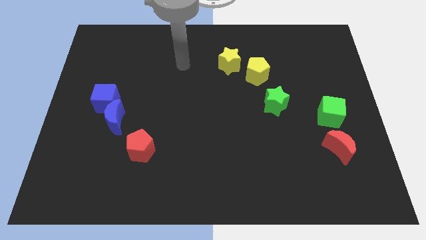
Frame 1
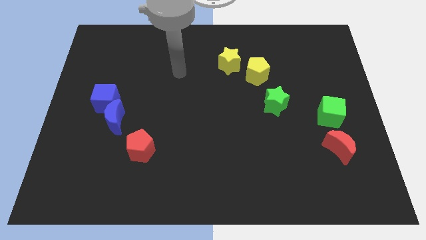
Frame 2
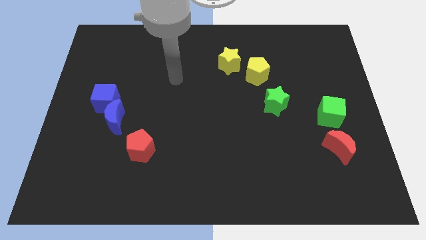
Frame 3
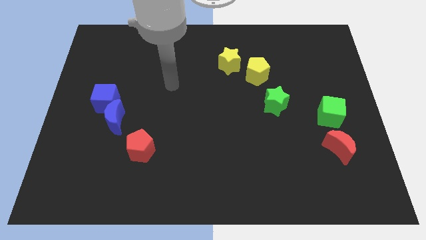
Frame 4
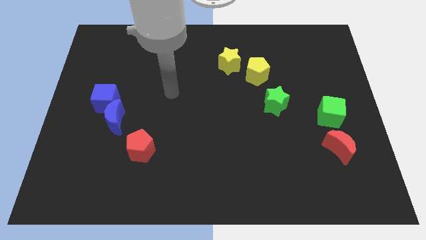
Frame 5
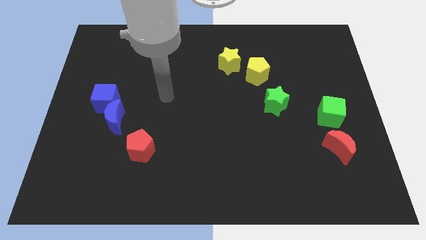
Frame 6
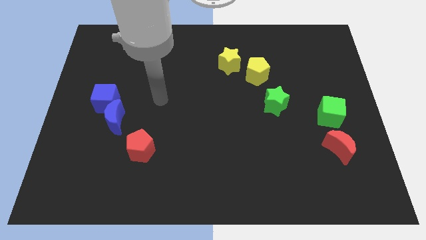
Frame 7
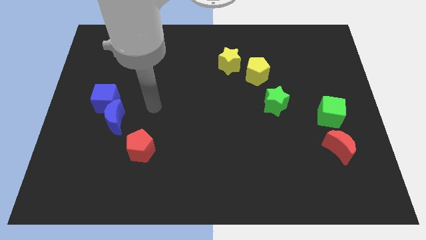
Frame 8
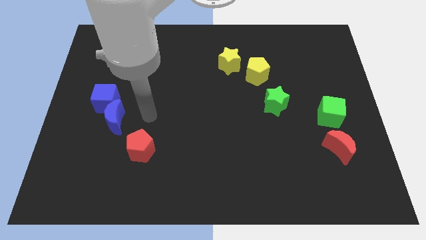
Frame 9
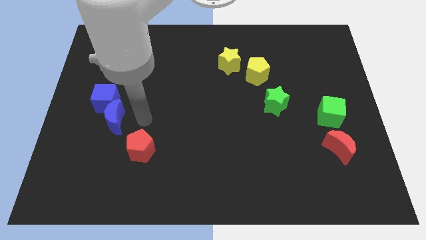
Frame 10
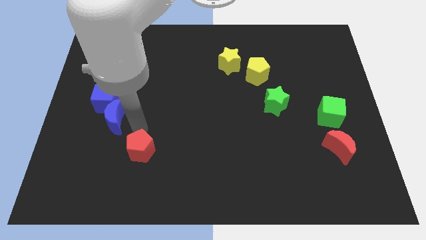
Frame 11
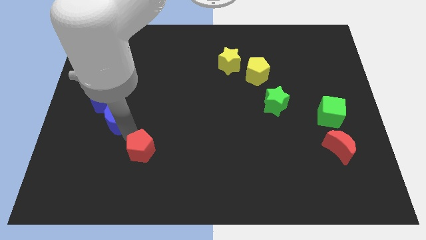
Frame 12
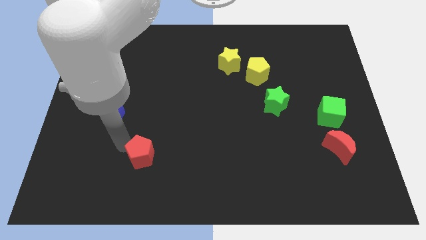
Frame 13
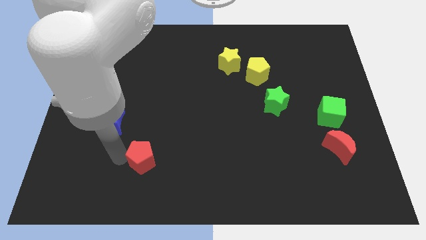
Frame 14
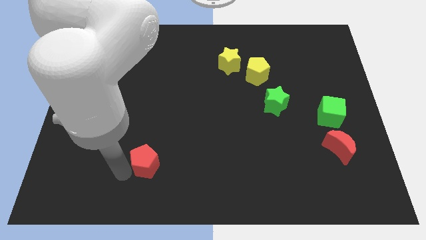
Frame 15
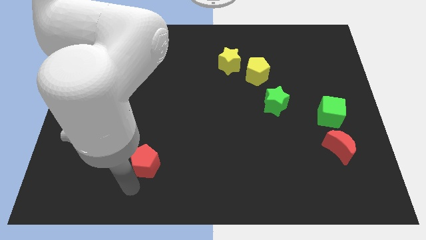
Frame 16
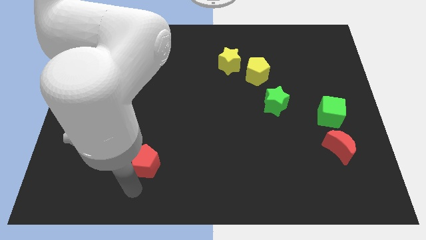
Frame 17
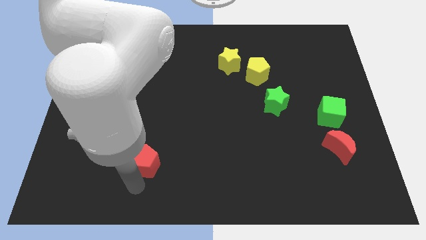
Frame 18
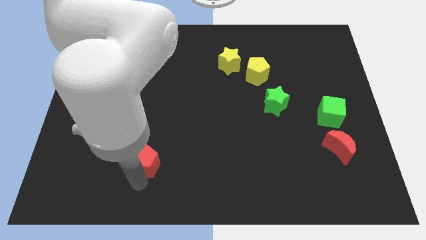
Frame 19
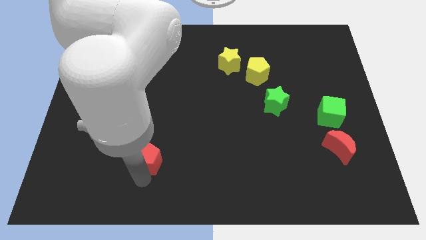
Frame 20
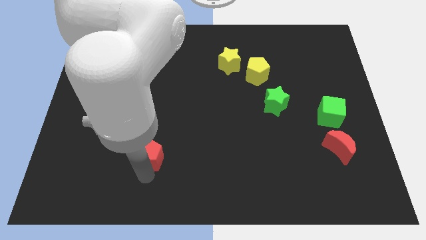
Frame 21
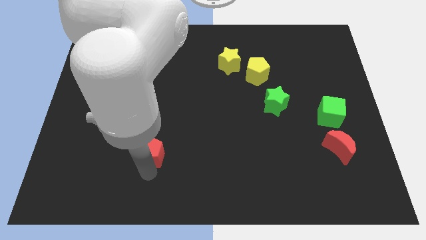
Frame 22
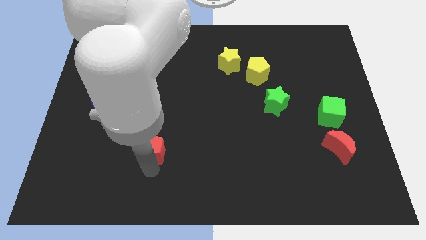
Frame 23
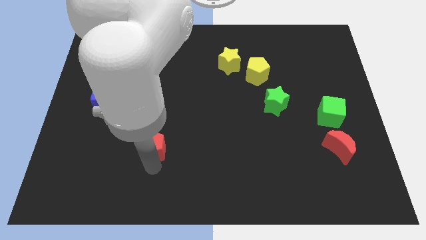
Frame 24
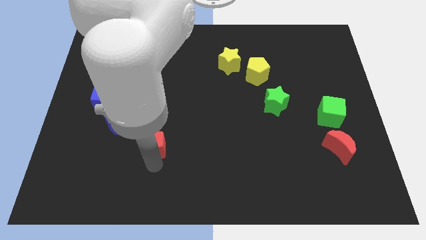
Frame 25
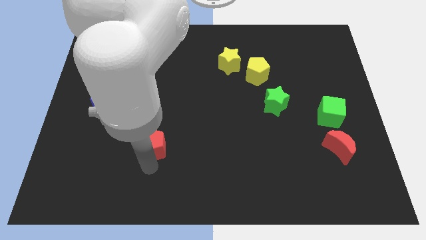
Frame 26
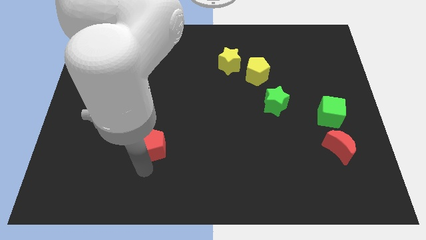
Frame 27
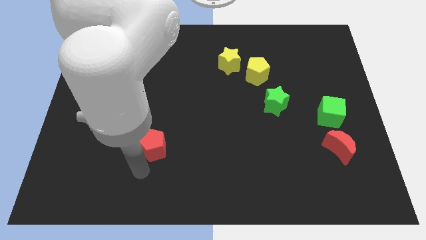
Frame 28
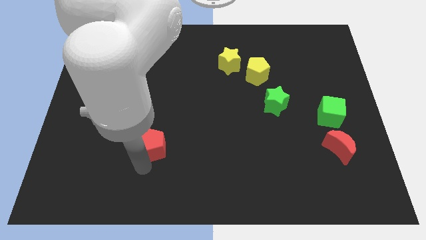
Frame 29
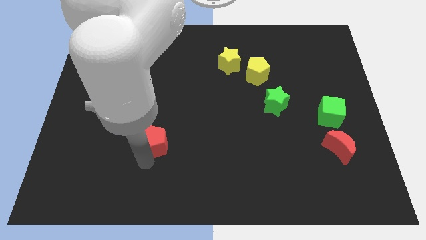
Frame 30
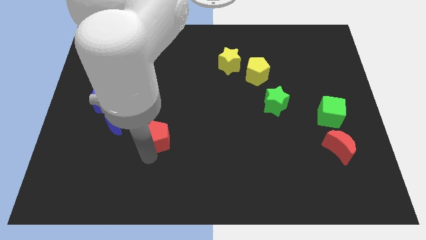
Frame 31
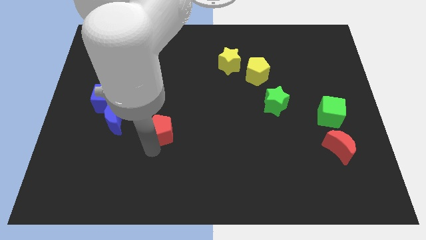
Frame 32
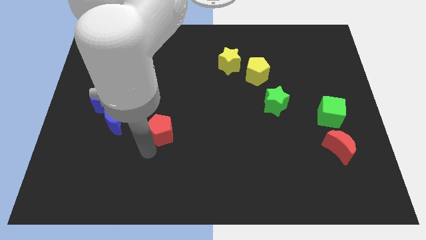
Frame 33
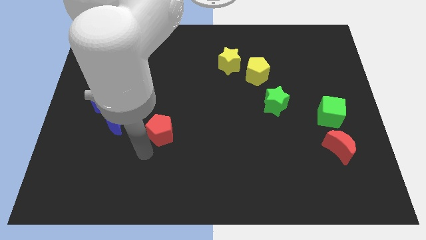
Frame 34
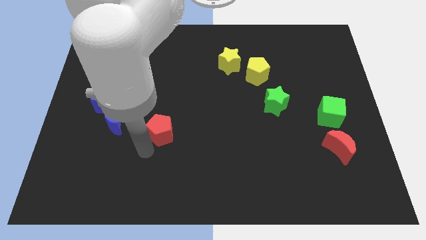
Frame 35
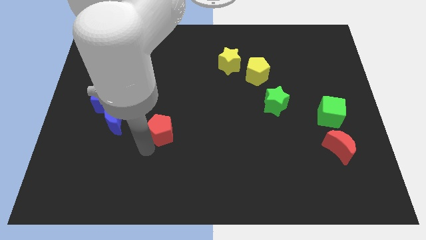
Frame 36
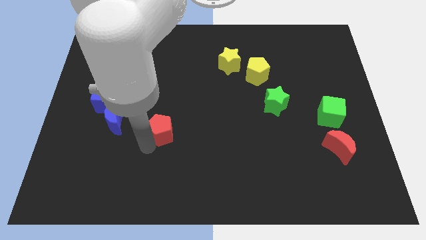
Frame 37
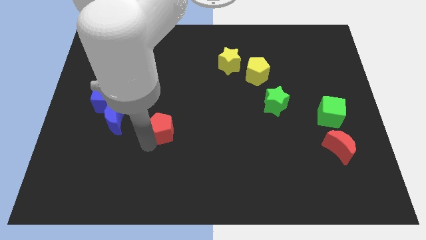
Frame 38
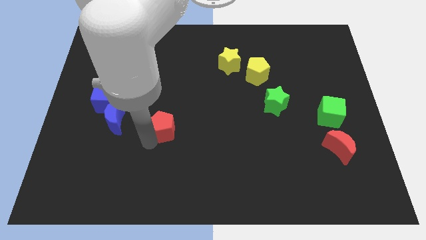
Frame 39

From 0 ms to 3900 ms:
push the red pentagon upwards and right diagonally slightly

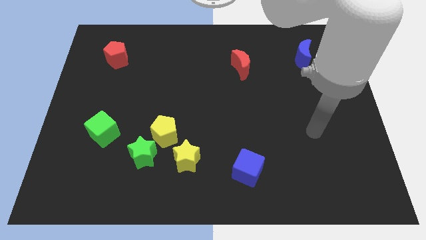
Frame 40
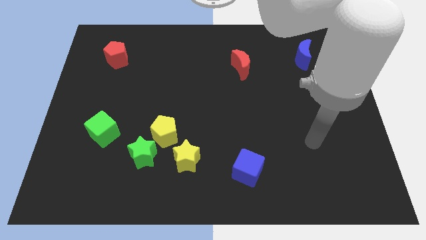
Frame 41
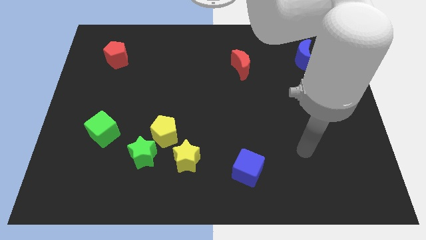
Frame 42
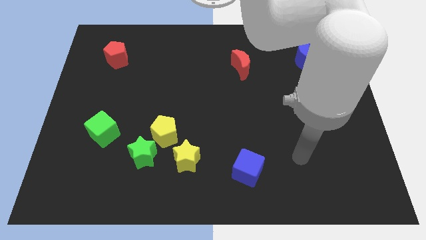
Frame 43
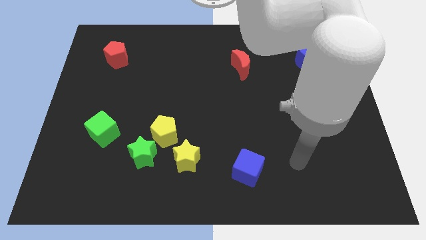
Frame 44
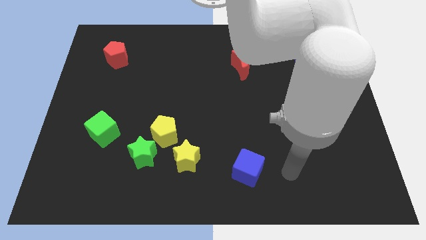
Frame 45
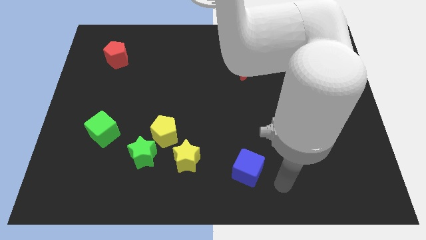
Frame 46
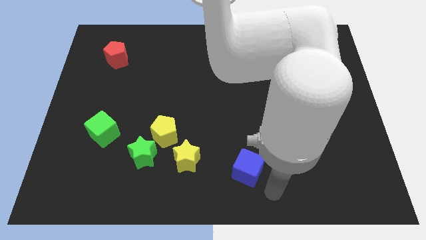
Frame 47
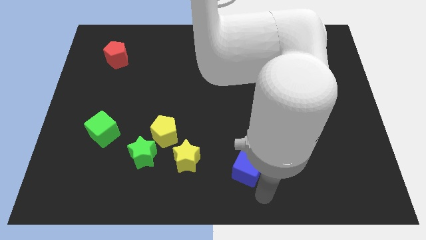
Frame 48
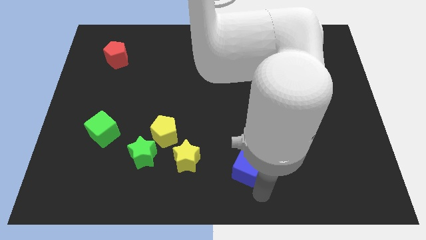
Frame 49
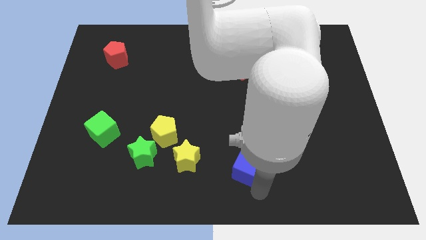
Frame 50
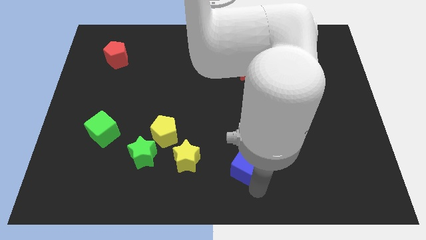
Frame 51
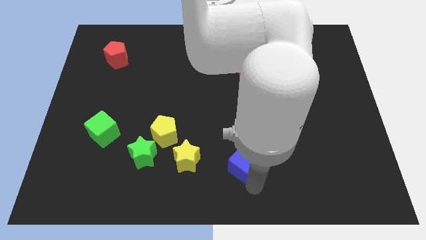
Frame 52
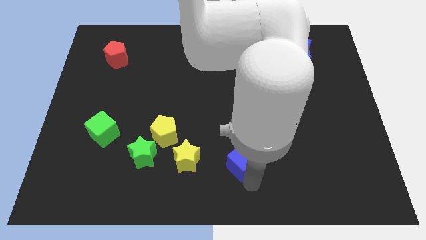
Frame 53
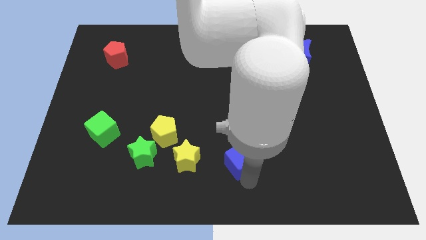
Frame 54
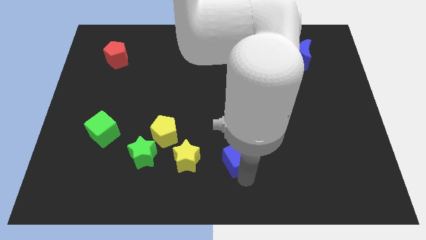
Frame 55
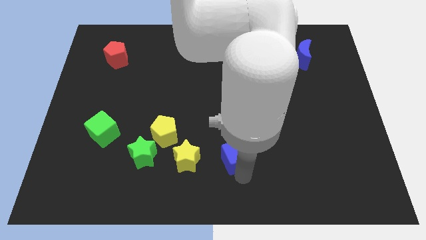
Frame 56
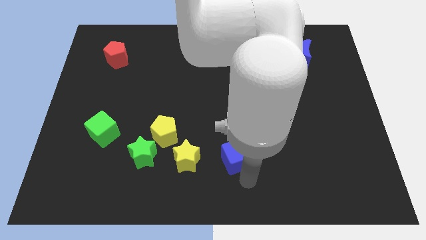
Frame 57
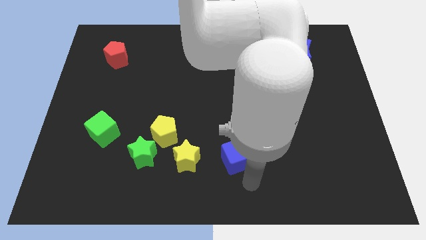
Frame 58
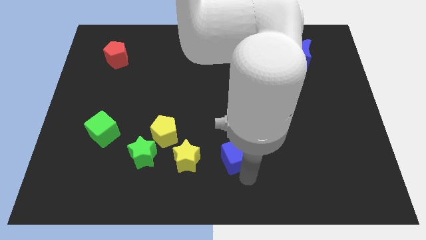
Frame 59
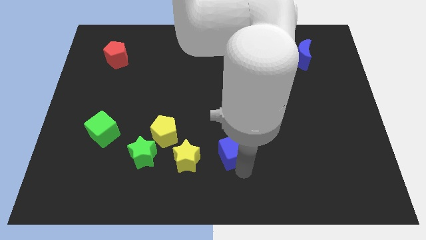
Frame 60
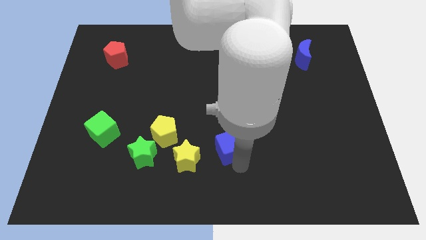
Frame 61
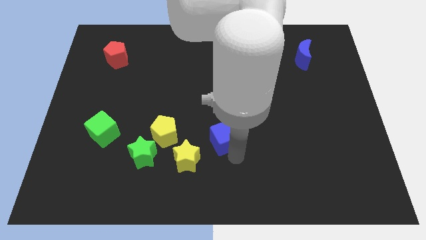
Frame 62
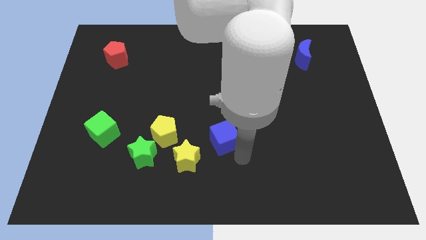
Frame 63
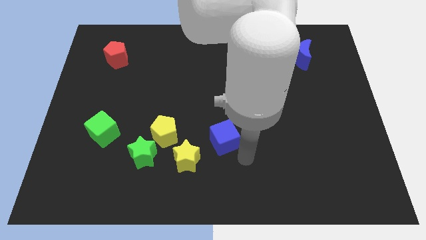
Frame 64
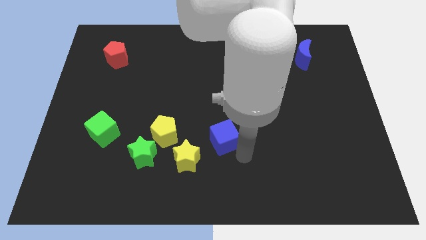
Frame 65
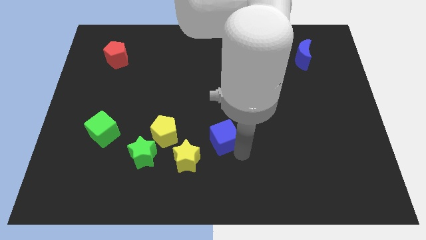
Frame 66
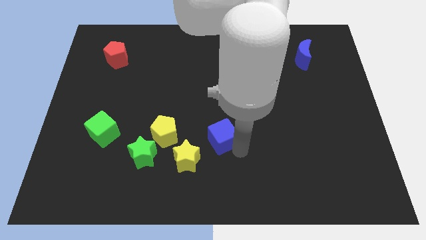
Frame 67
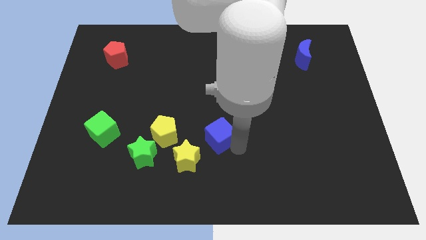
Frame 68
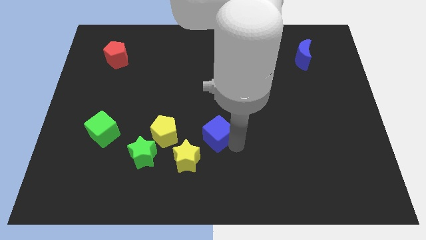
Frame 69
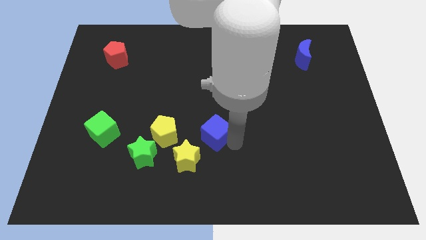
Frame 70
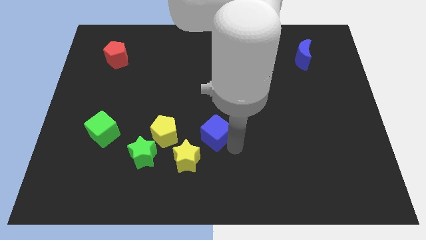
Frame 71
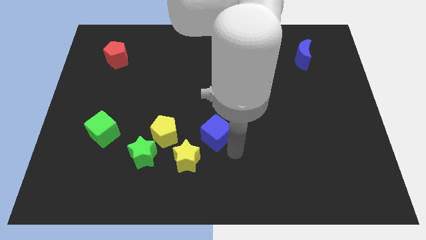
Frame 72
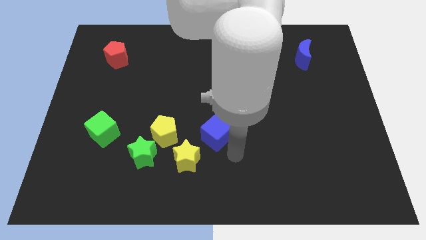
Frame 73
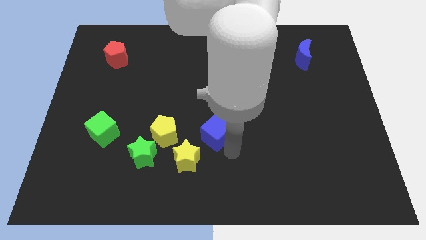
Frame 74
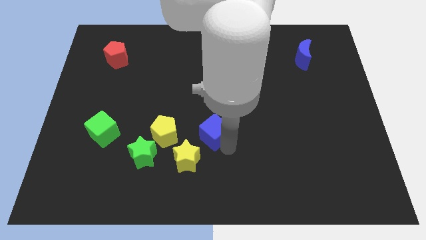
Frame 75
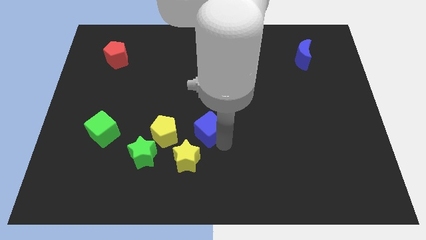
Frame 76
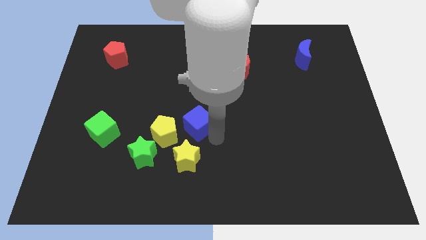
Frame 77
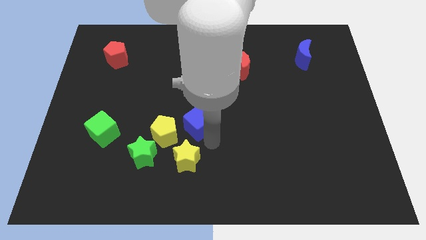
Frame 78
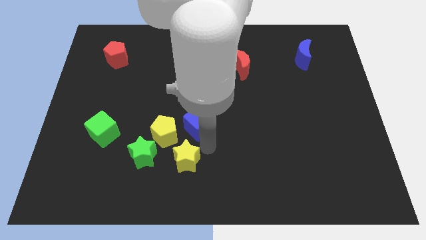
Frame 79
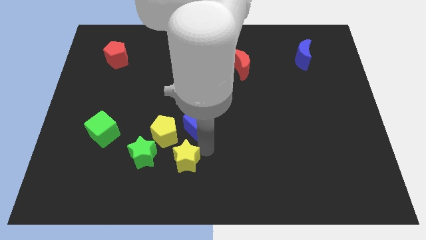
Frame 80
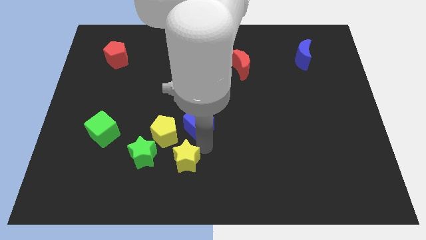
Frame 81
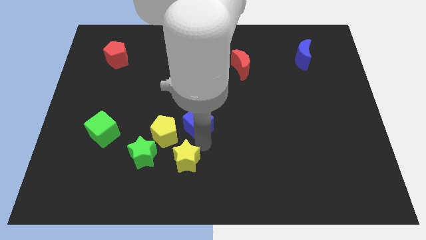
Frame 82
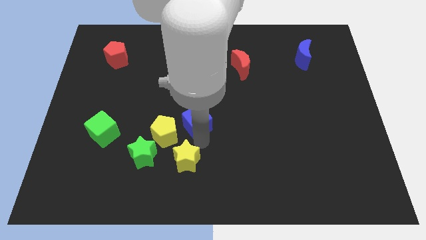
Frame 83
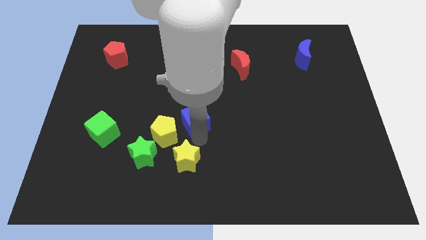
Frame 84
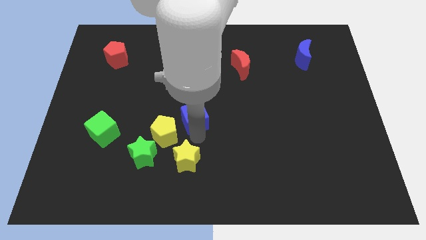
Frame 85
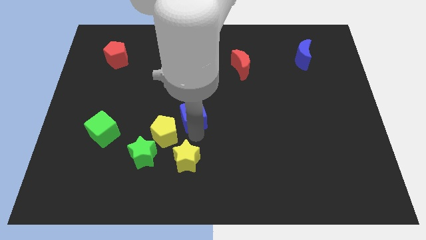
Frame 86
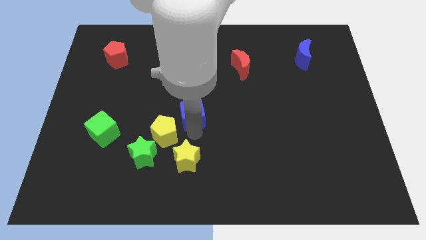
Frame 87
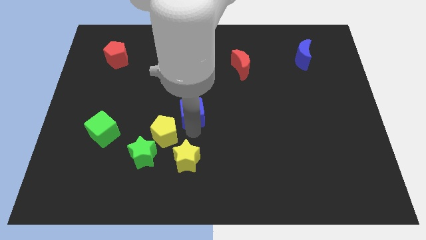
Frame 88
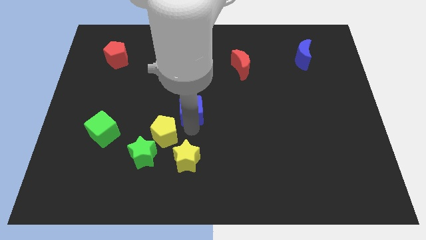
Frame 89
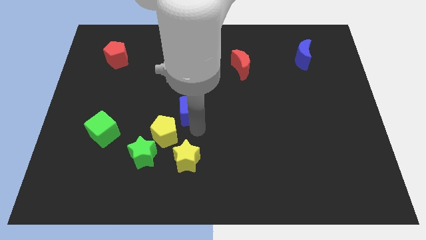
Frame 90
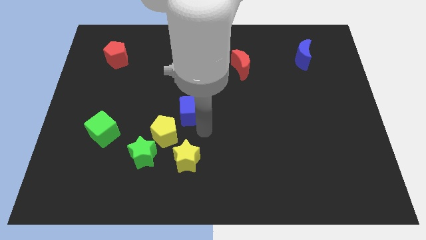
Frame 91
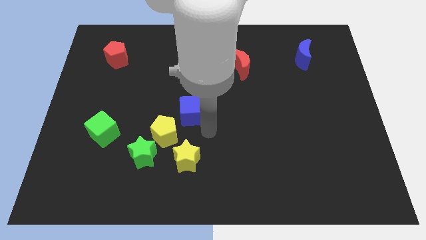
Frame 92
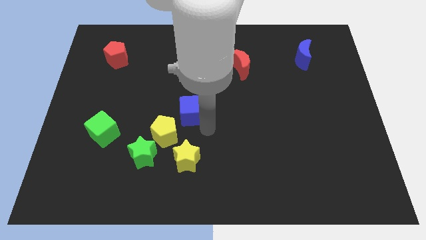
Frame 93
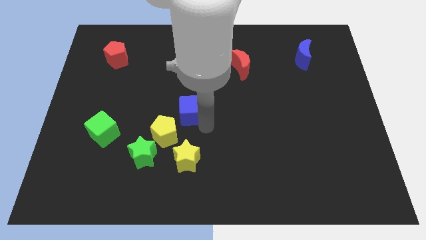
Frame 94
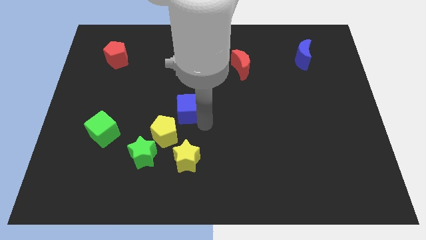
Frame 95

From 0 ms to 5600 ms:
push the blue cube diagonally upwards and left
